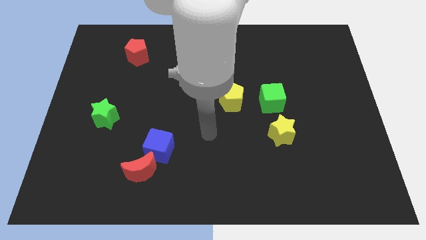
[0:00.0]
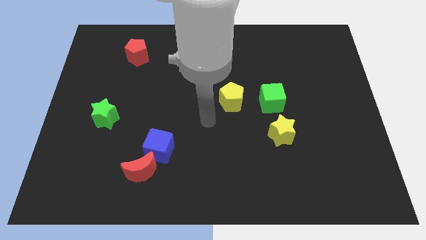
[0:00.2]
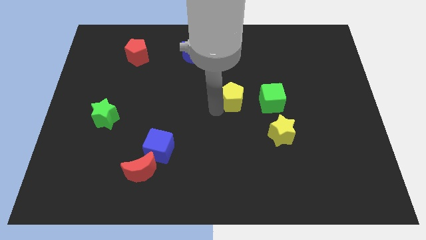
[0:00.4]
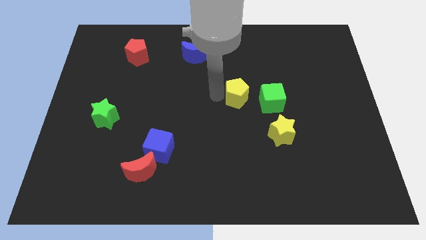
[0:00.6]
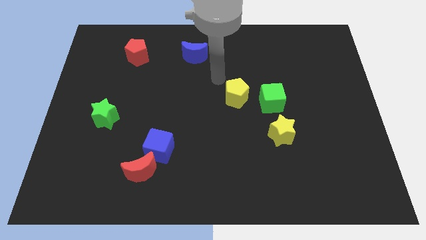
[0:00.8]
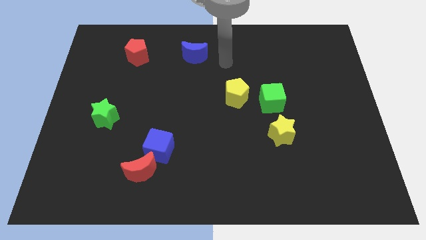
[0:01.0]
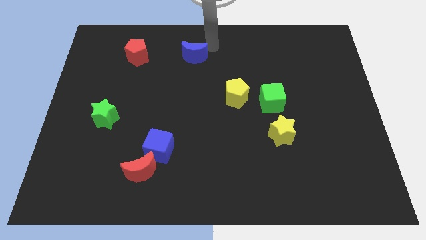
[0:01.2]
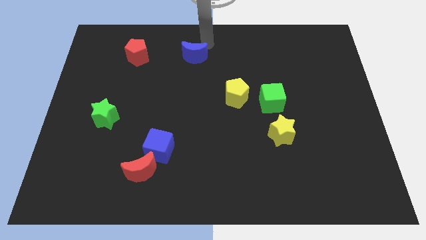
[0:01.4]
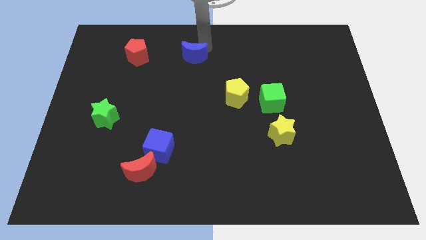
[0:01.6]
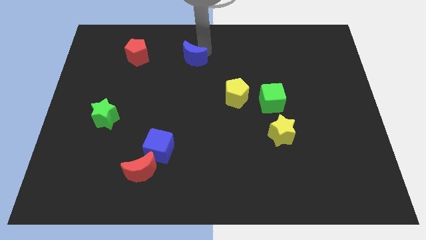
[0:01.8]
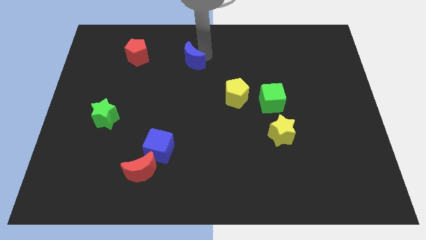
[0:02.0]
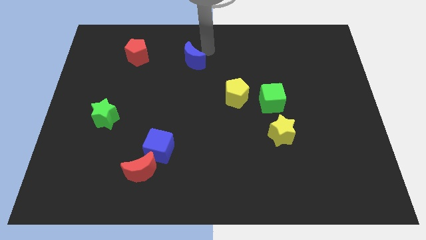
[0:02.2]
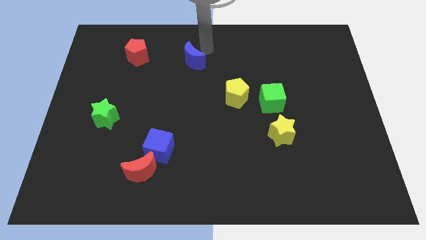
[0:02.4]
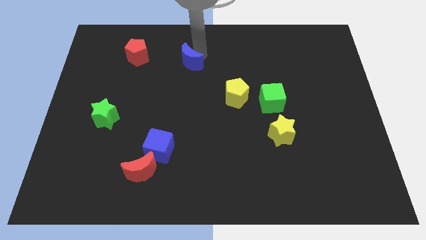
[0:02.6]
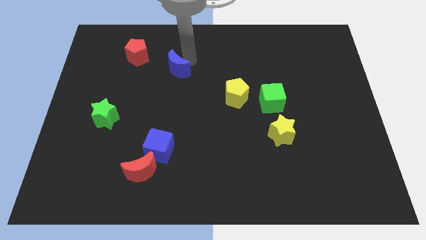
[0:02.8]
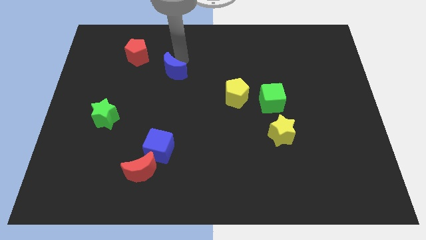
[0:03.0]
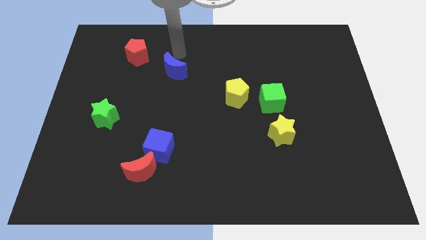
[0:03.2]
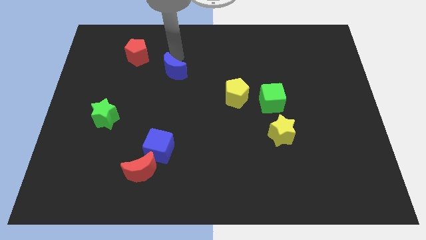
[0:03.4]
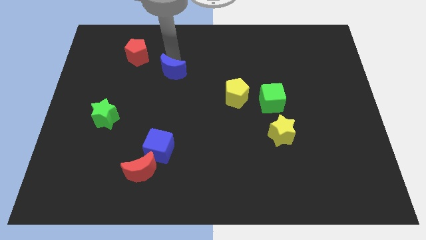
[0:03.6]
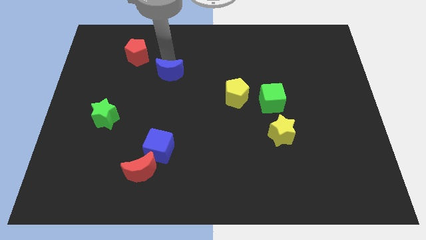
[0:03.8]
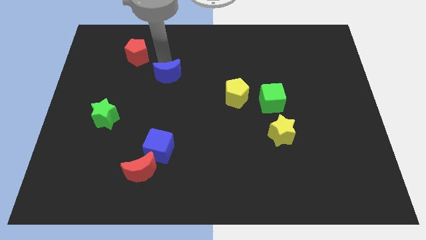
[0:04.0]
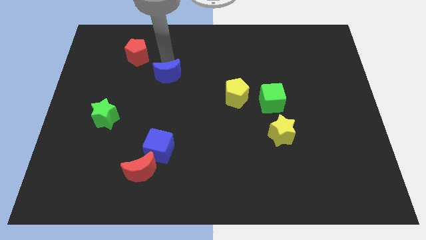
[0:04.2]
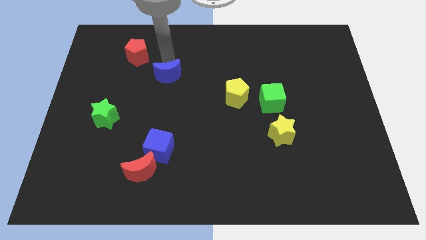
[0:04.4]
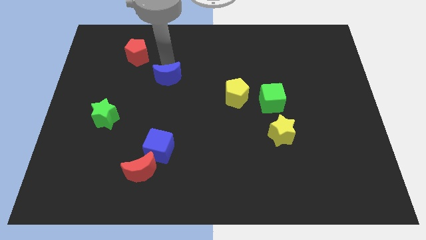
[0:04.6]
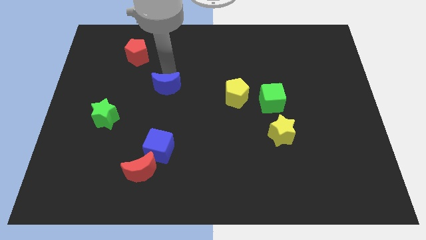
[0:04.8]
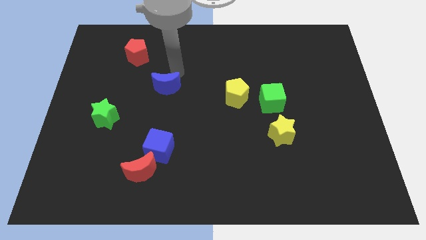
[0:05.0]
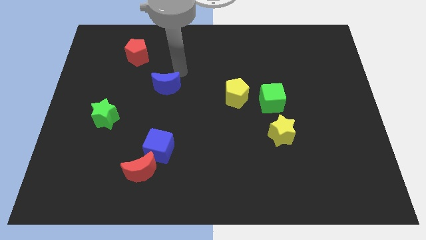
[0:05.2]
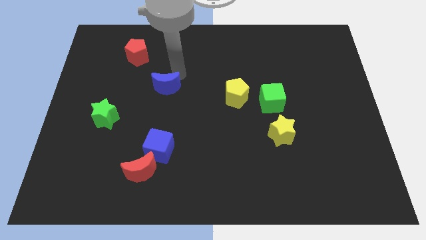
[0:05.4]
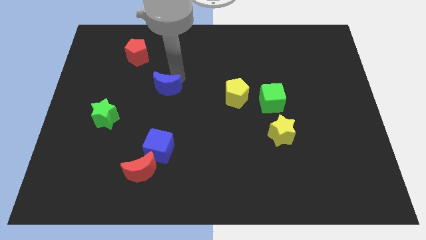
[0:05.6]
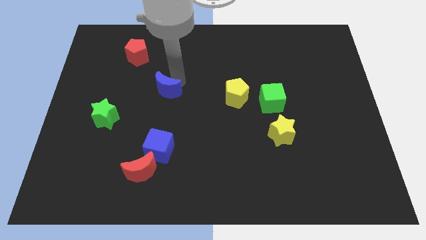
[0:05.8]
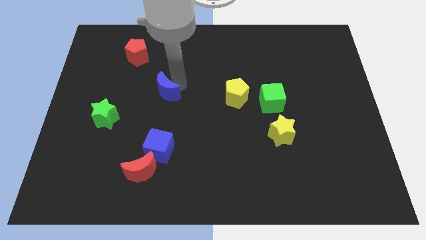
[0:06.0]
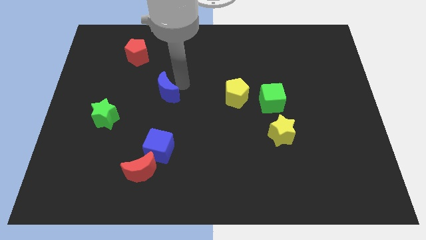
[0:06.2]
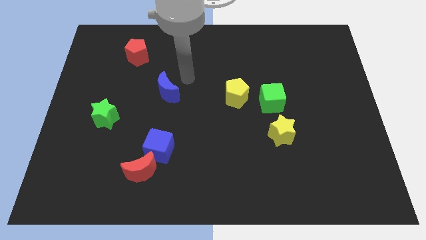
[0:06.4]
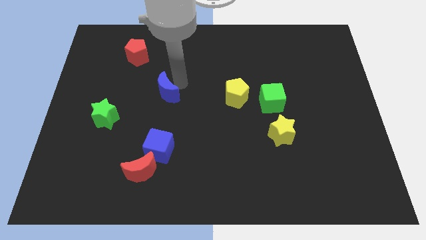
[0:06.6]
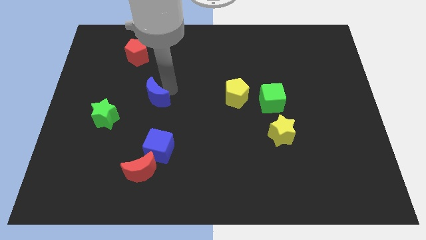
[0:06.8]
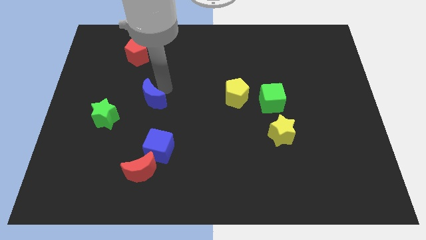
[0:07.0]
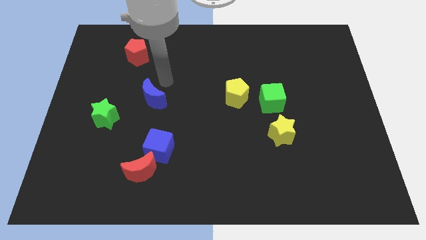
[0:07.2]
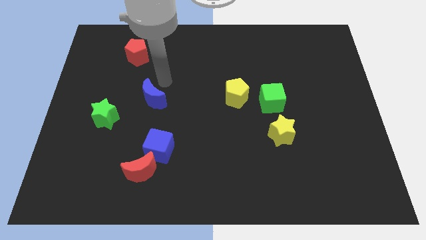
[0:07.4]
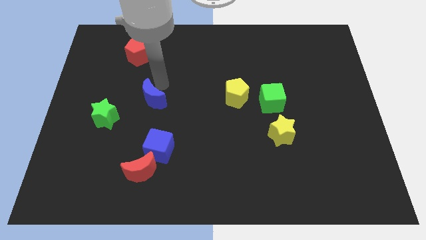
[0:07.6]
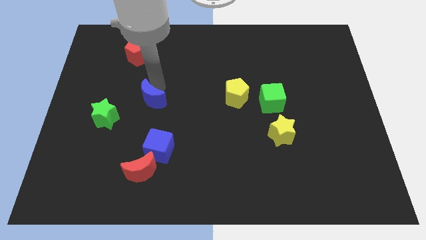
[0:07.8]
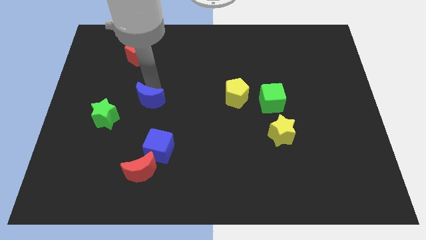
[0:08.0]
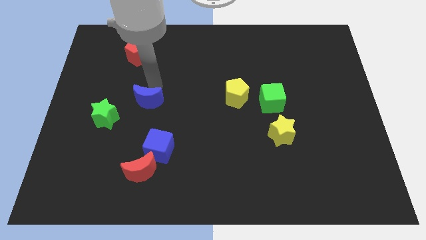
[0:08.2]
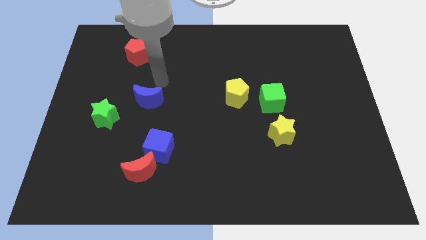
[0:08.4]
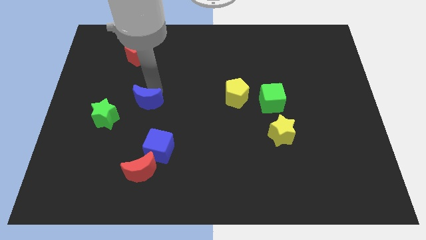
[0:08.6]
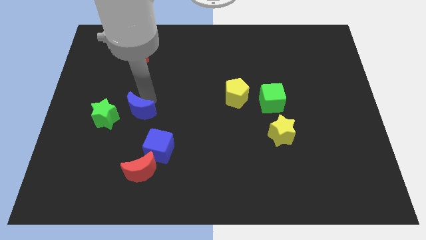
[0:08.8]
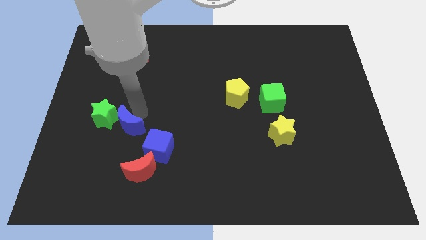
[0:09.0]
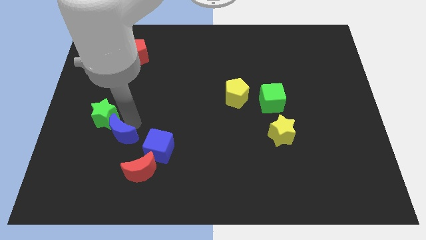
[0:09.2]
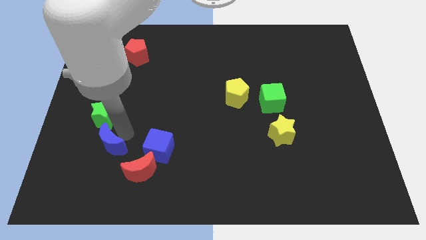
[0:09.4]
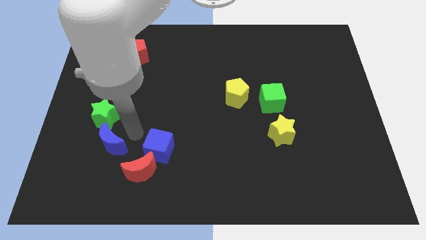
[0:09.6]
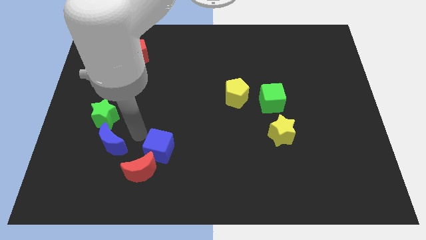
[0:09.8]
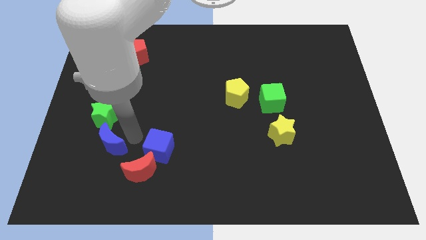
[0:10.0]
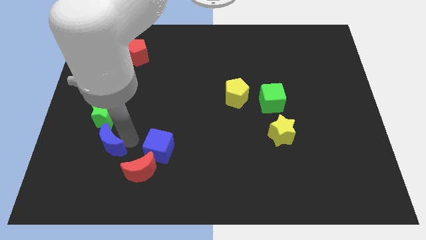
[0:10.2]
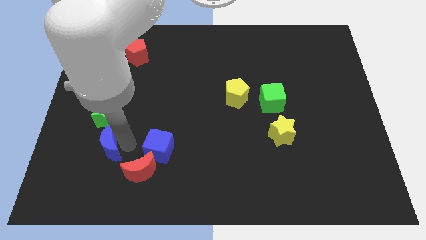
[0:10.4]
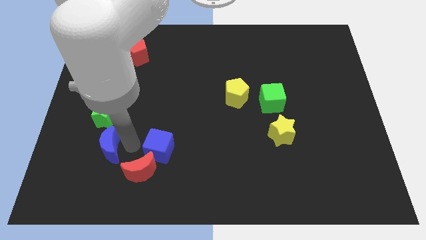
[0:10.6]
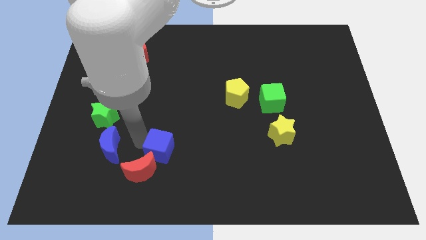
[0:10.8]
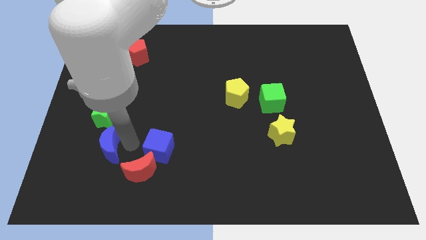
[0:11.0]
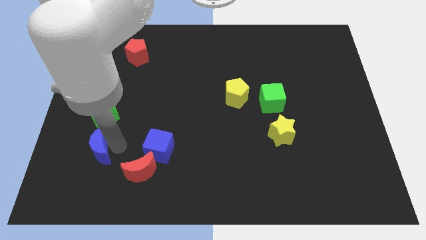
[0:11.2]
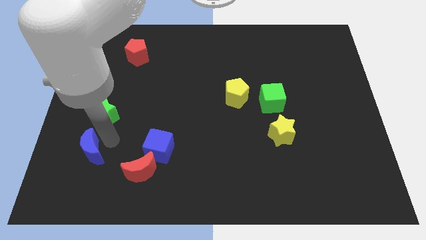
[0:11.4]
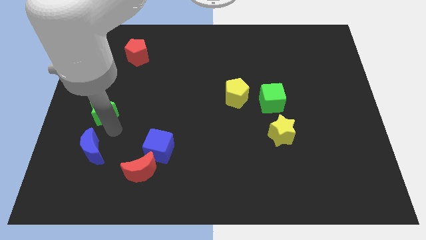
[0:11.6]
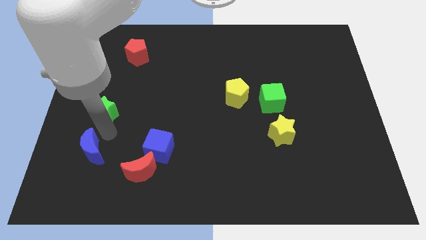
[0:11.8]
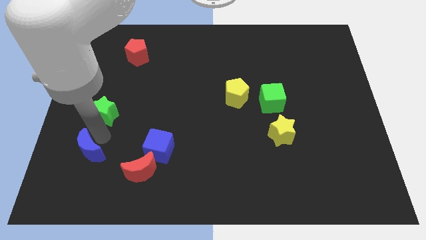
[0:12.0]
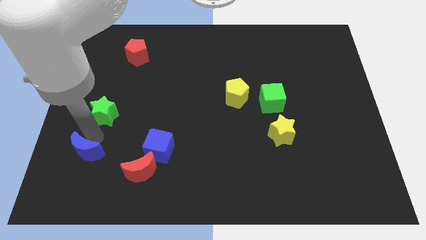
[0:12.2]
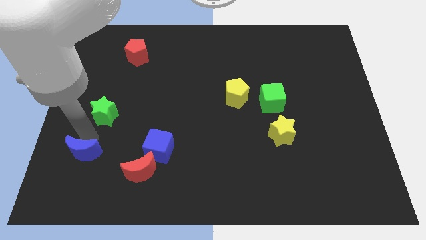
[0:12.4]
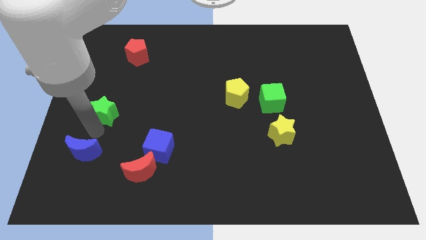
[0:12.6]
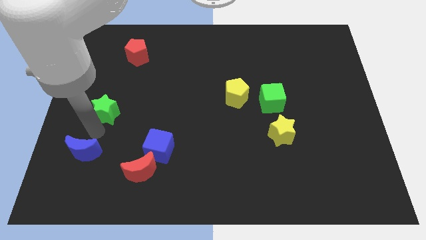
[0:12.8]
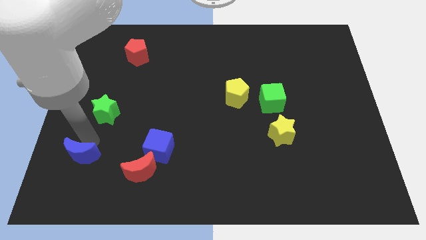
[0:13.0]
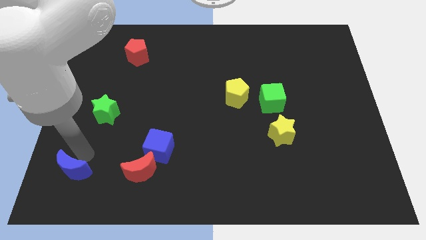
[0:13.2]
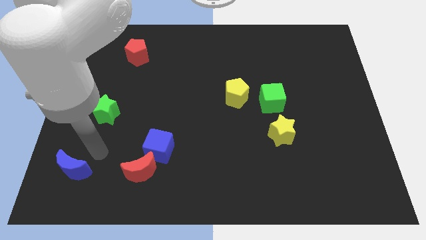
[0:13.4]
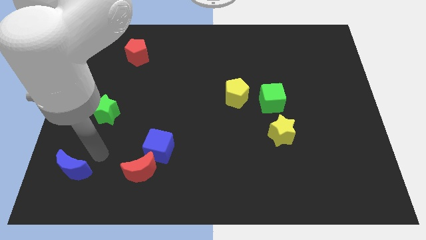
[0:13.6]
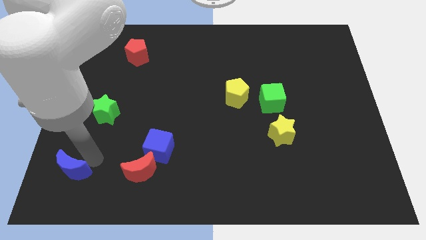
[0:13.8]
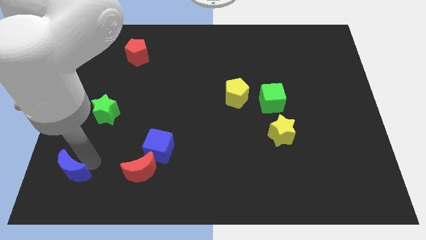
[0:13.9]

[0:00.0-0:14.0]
slide the blue moon to the bottom left of the board
